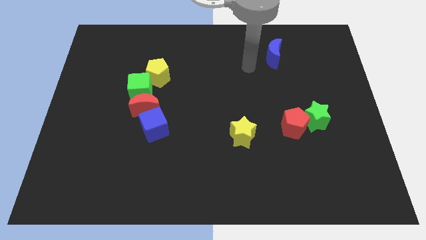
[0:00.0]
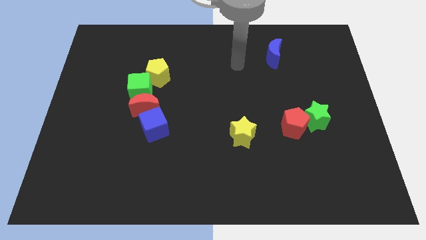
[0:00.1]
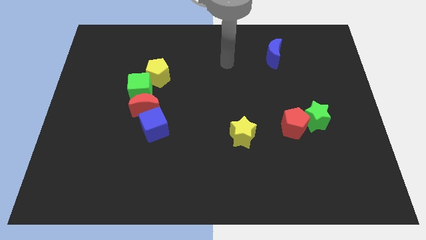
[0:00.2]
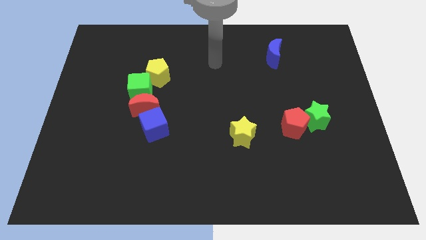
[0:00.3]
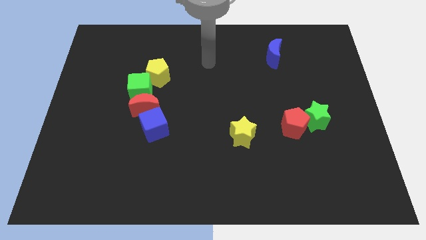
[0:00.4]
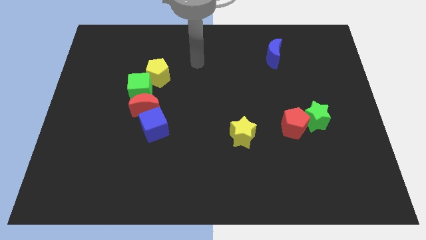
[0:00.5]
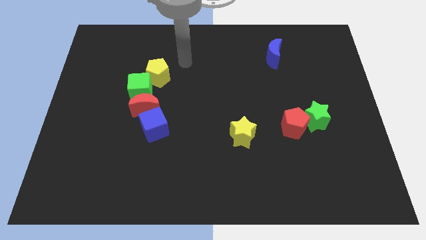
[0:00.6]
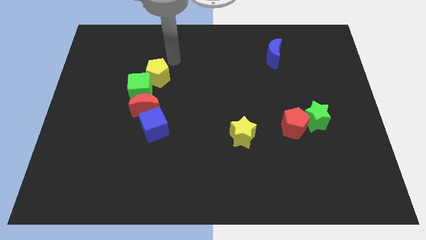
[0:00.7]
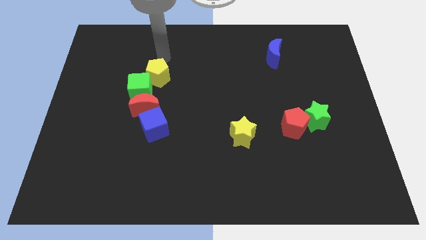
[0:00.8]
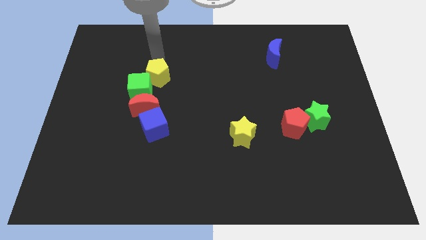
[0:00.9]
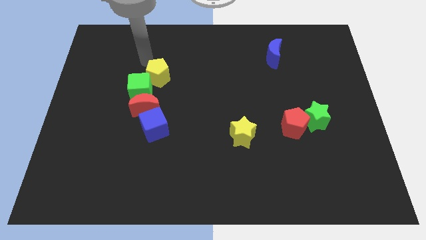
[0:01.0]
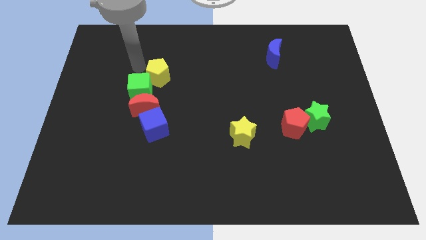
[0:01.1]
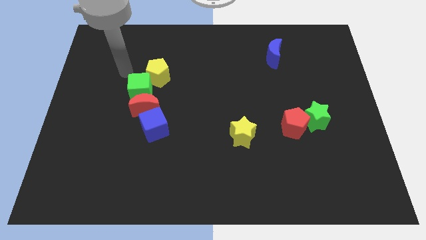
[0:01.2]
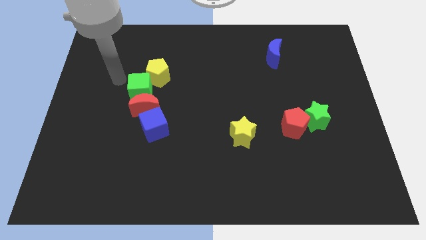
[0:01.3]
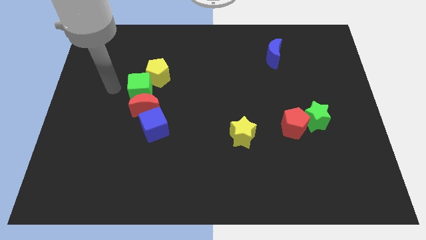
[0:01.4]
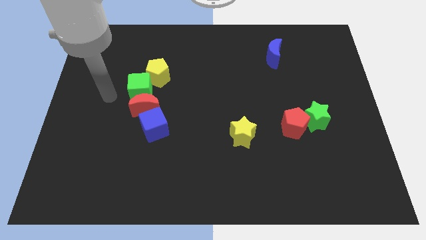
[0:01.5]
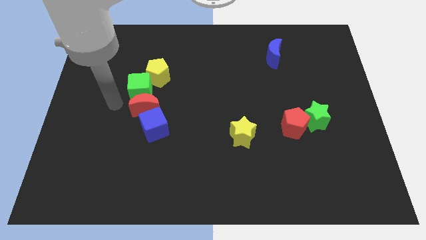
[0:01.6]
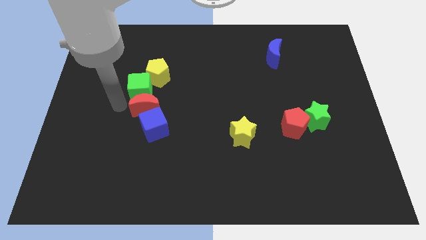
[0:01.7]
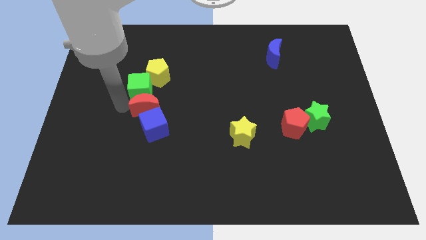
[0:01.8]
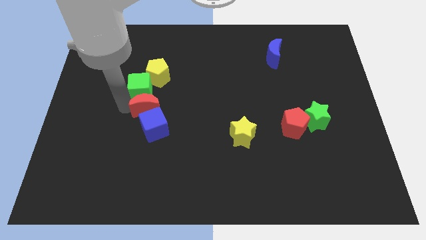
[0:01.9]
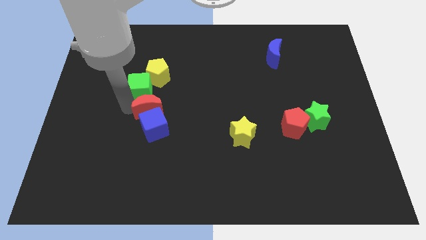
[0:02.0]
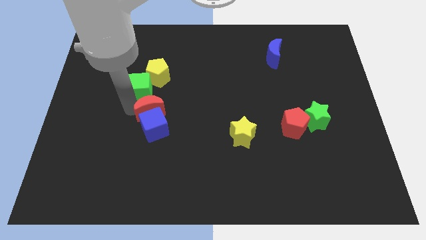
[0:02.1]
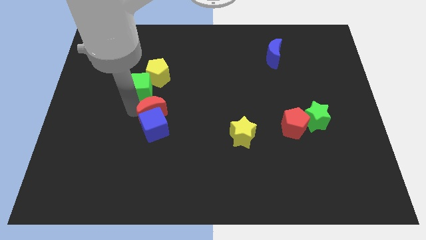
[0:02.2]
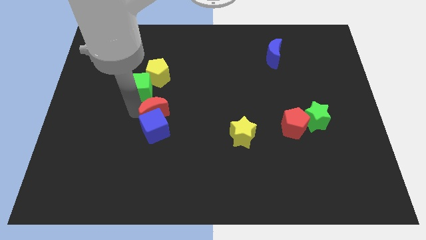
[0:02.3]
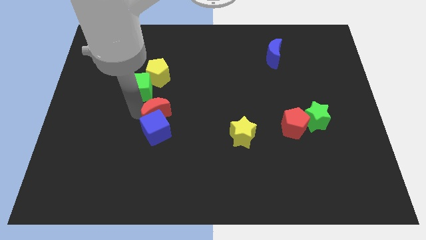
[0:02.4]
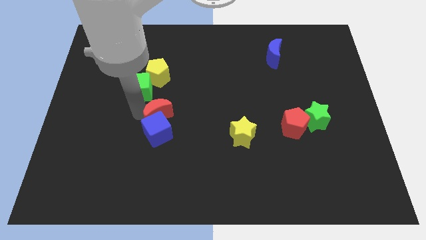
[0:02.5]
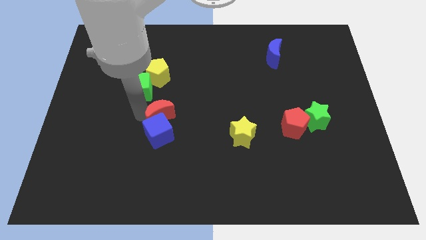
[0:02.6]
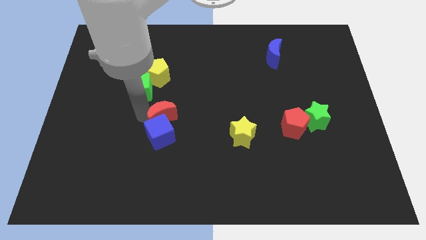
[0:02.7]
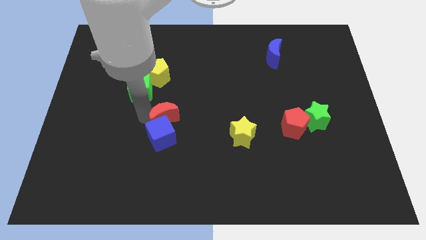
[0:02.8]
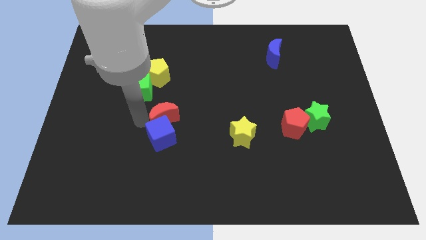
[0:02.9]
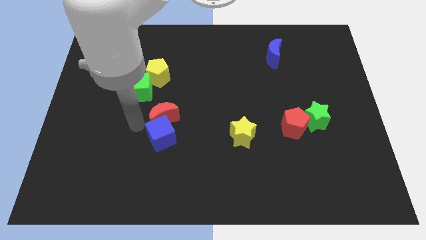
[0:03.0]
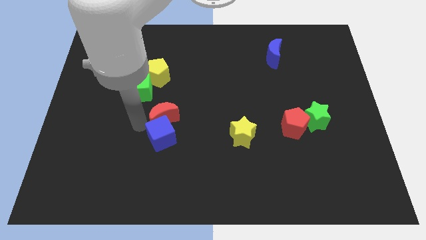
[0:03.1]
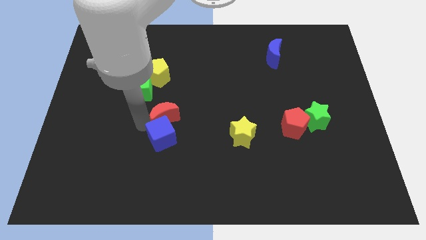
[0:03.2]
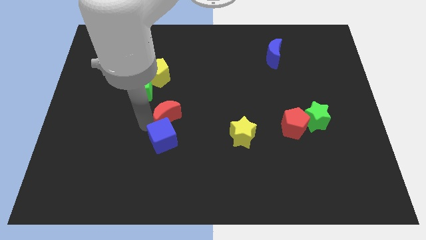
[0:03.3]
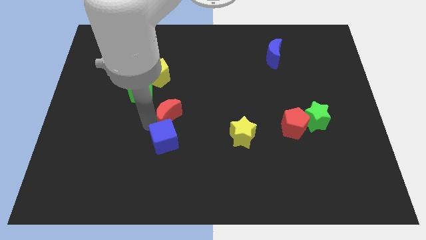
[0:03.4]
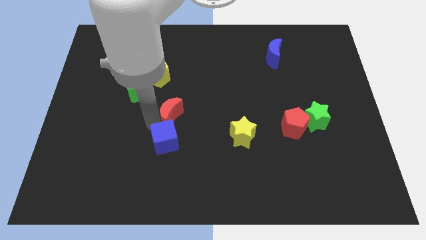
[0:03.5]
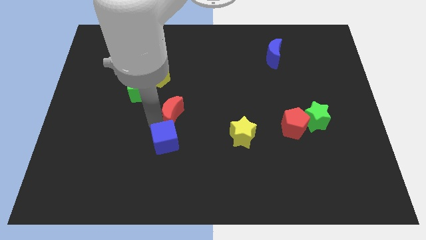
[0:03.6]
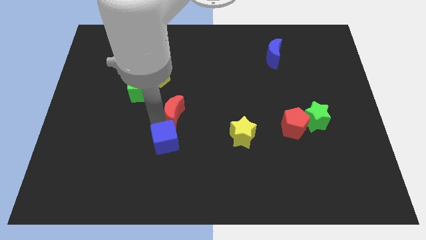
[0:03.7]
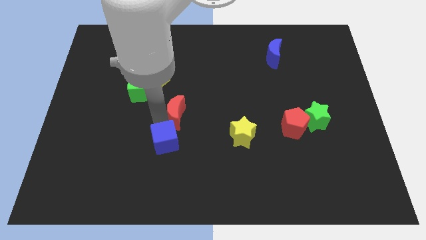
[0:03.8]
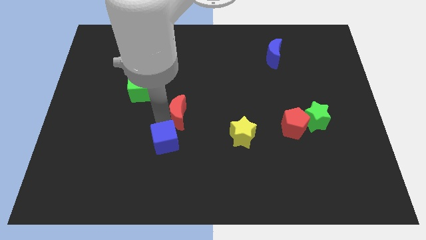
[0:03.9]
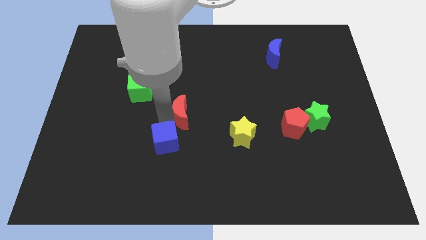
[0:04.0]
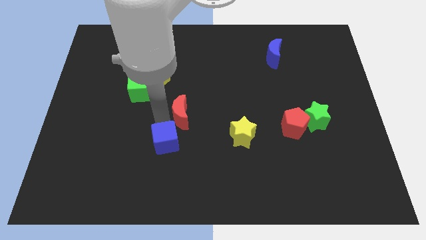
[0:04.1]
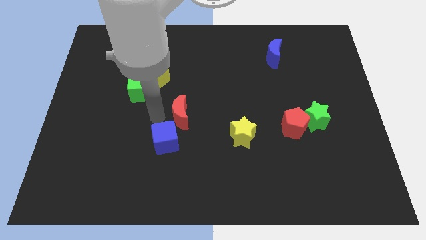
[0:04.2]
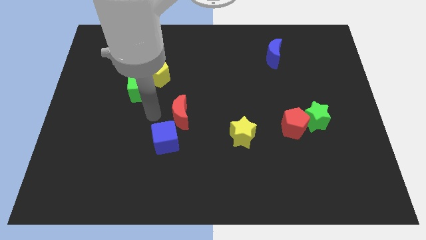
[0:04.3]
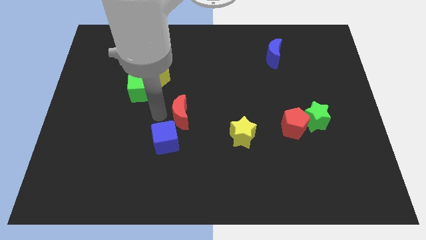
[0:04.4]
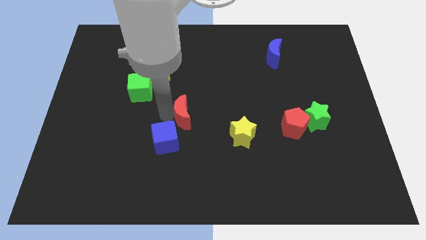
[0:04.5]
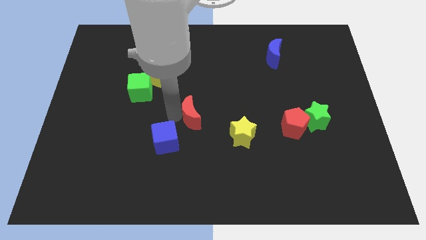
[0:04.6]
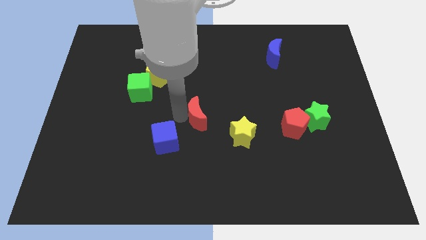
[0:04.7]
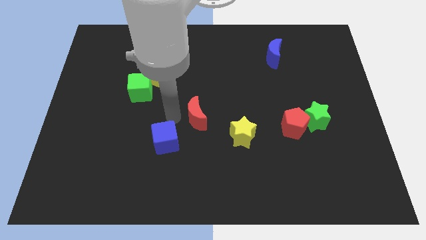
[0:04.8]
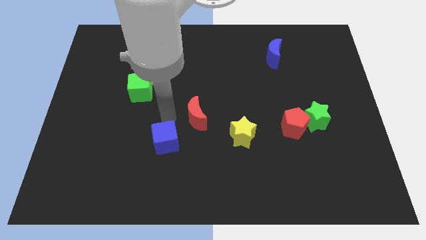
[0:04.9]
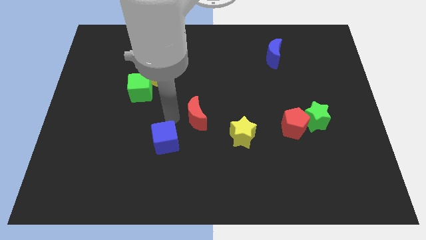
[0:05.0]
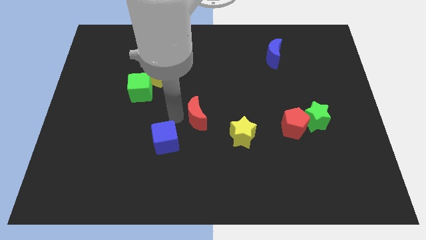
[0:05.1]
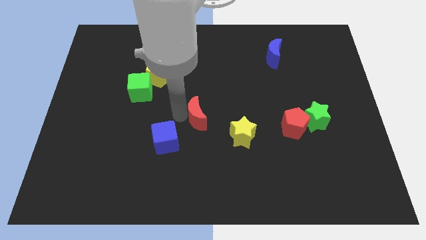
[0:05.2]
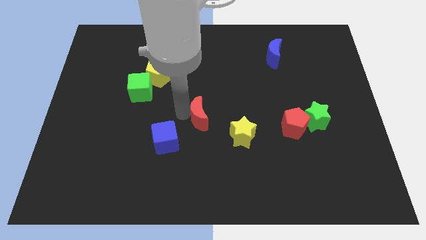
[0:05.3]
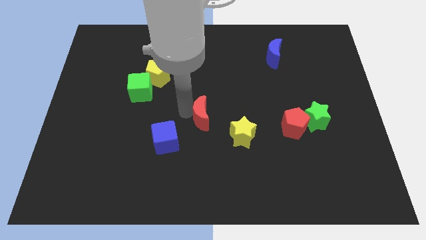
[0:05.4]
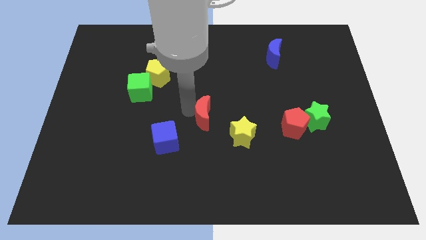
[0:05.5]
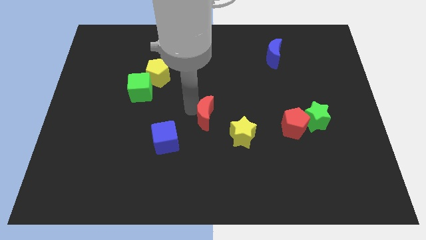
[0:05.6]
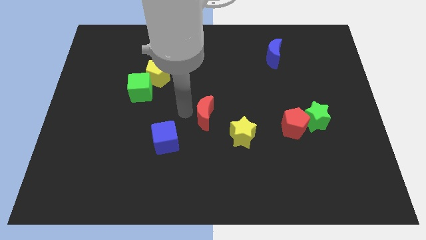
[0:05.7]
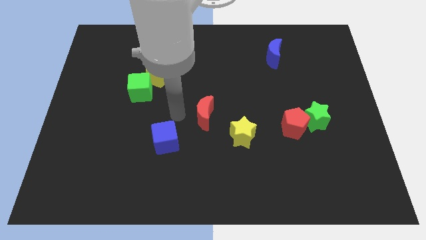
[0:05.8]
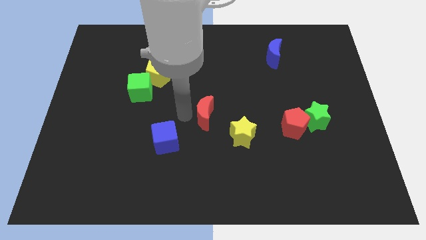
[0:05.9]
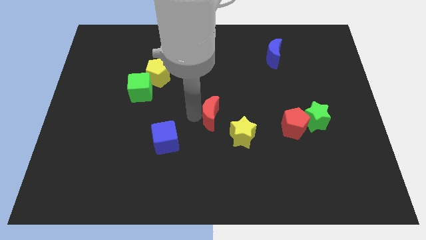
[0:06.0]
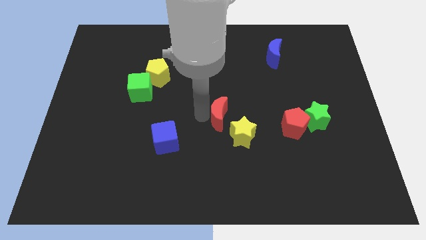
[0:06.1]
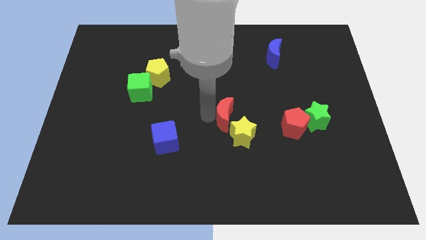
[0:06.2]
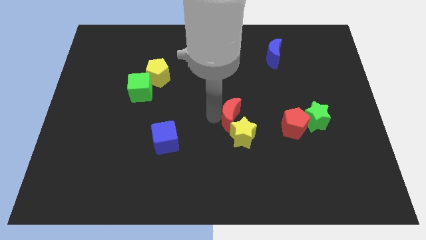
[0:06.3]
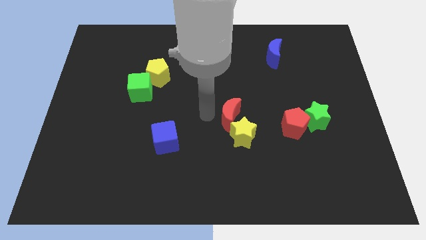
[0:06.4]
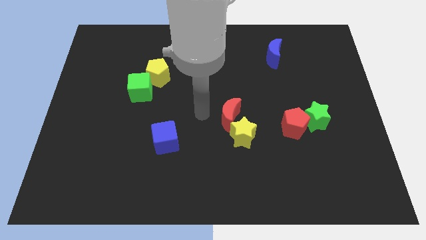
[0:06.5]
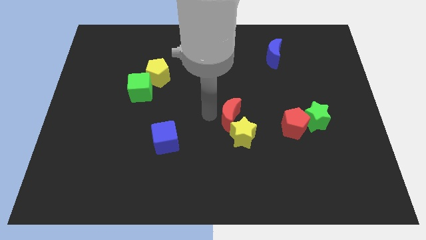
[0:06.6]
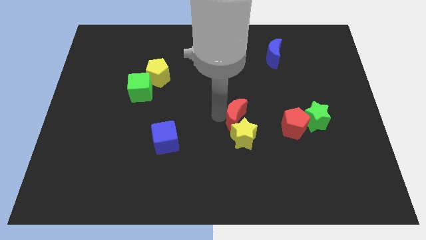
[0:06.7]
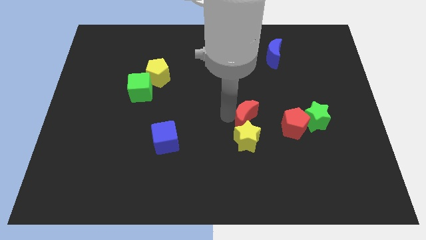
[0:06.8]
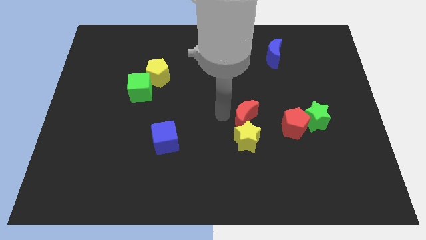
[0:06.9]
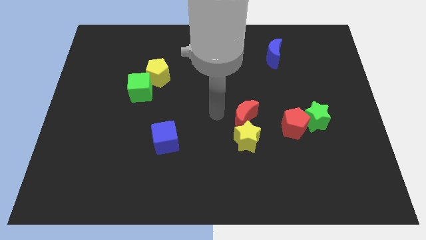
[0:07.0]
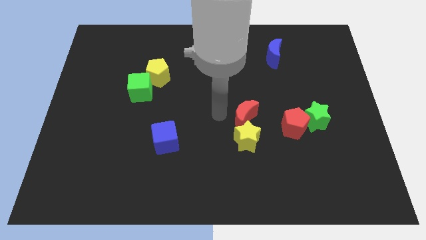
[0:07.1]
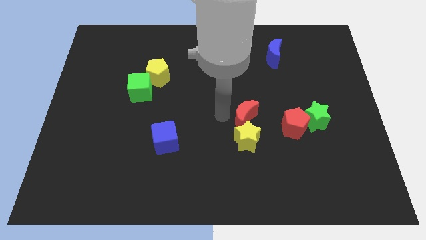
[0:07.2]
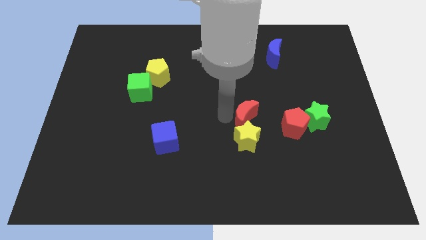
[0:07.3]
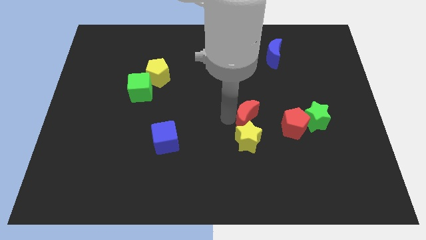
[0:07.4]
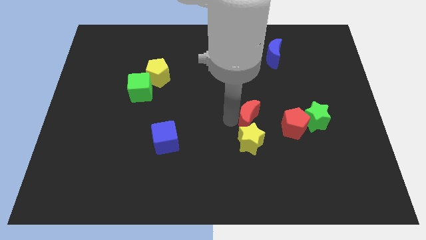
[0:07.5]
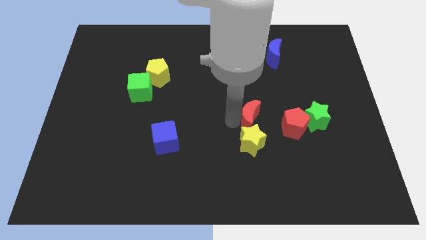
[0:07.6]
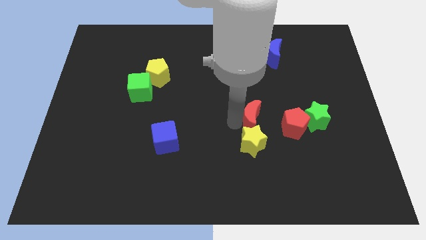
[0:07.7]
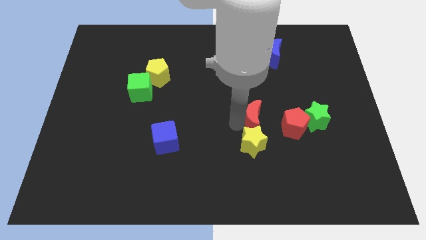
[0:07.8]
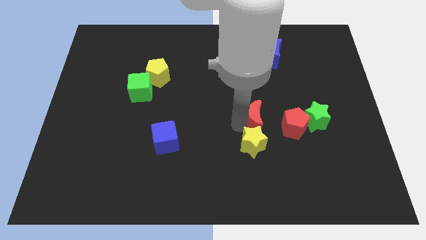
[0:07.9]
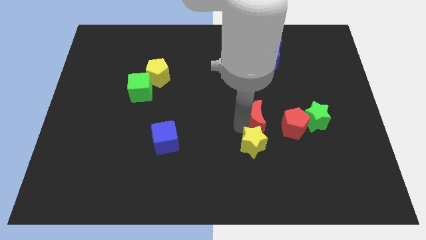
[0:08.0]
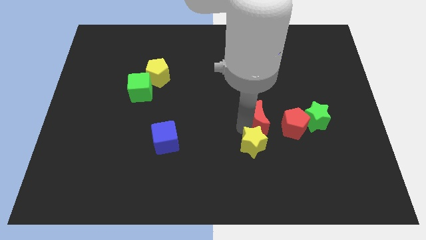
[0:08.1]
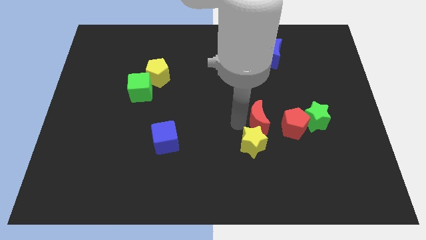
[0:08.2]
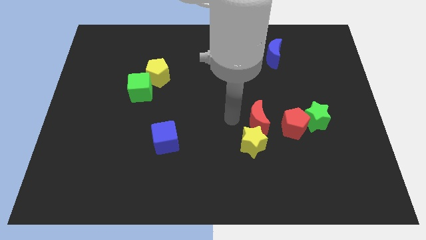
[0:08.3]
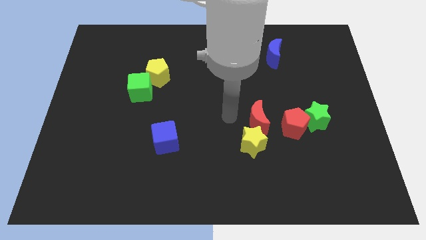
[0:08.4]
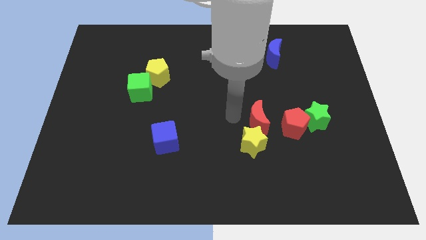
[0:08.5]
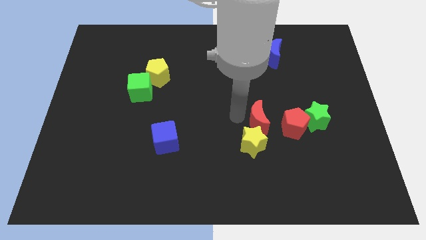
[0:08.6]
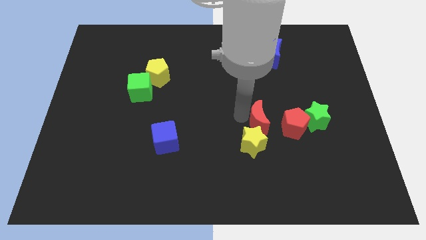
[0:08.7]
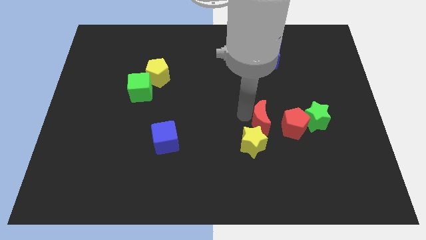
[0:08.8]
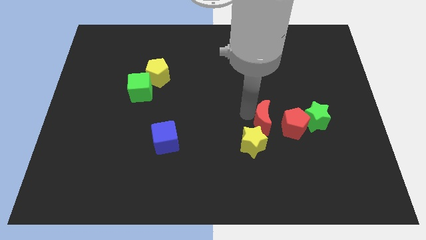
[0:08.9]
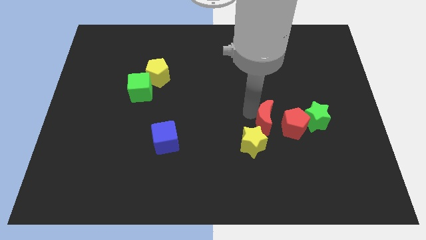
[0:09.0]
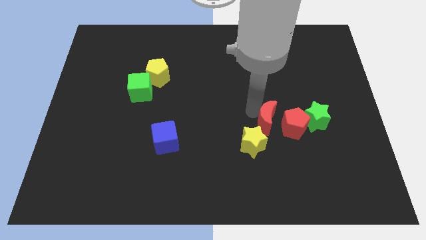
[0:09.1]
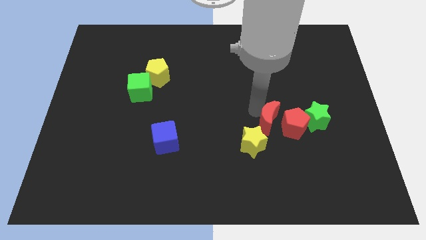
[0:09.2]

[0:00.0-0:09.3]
slide the red moon close to the red pentagon
